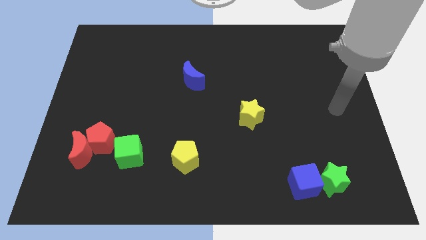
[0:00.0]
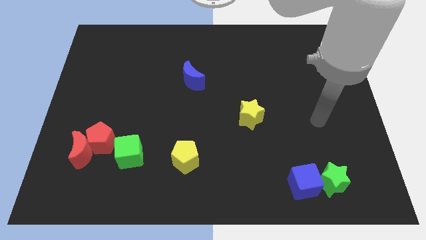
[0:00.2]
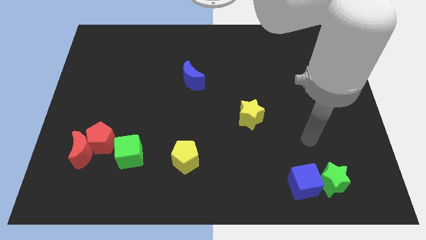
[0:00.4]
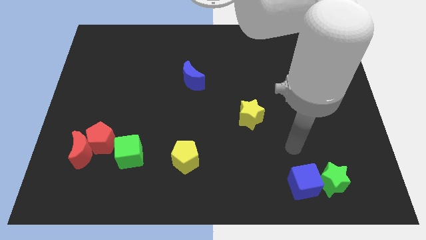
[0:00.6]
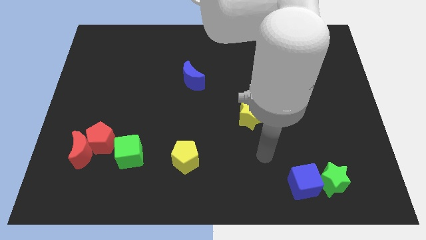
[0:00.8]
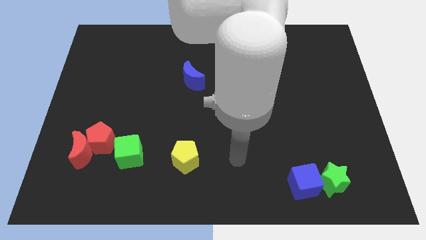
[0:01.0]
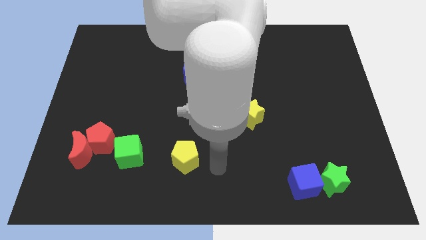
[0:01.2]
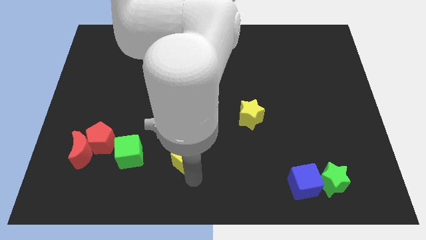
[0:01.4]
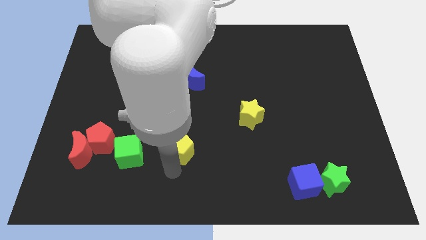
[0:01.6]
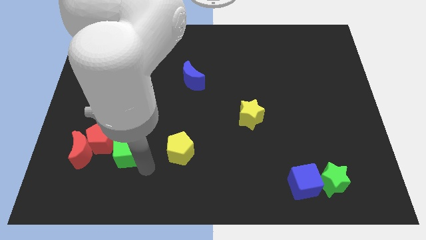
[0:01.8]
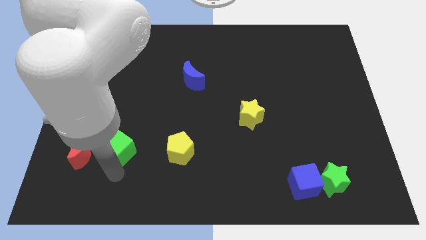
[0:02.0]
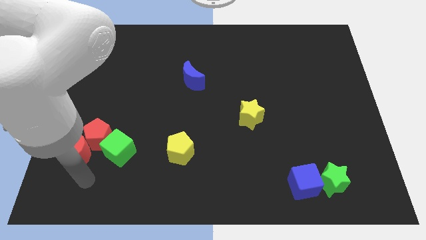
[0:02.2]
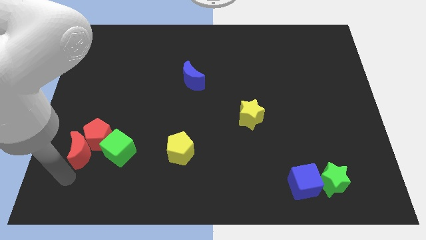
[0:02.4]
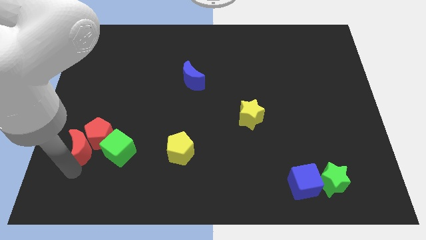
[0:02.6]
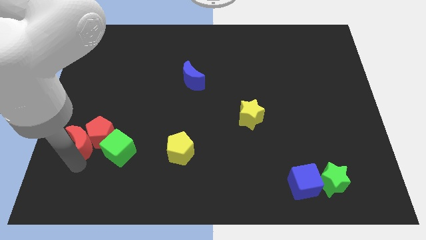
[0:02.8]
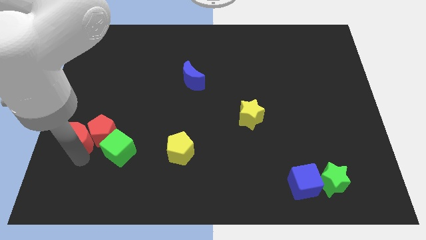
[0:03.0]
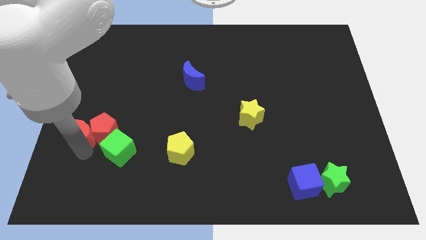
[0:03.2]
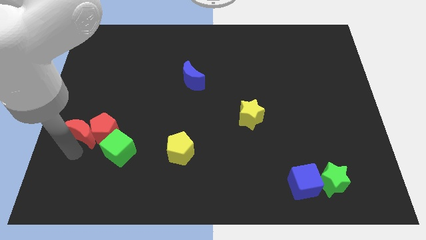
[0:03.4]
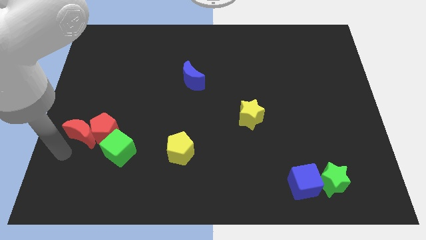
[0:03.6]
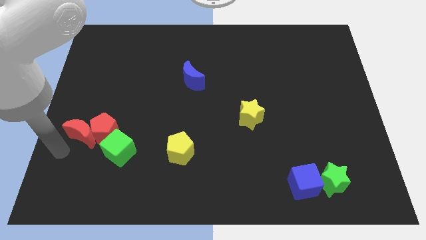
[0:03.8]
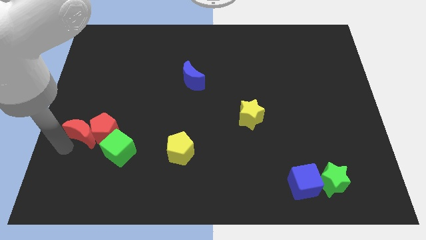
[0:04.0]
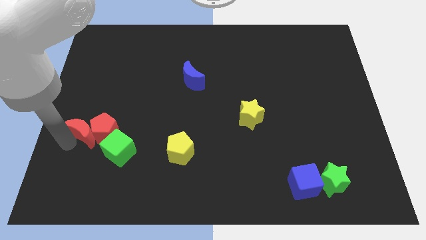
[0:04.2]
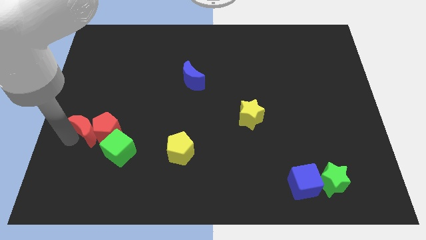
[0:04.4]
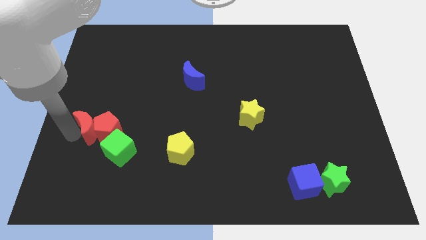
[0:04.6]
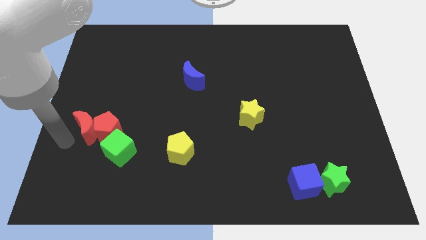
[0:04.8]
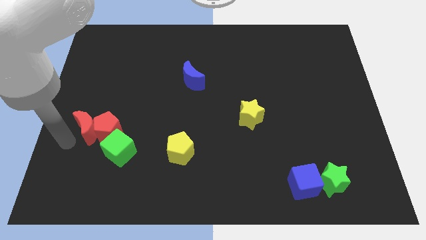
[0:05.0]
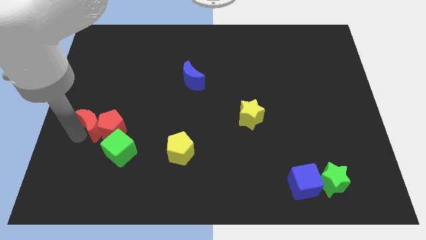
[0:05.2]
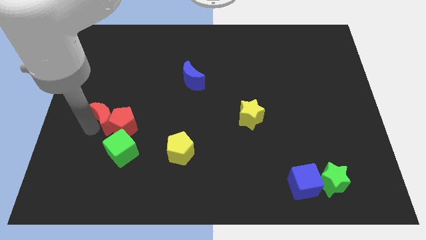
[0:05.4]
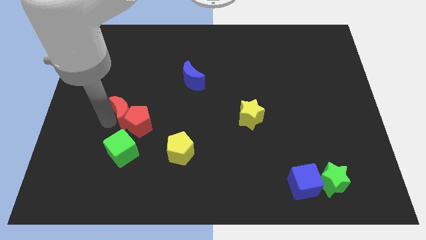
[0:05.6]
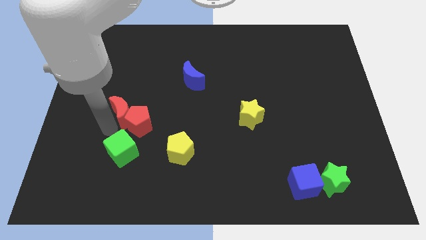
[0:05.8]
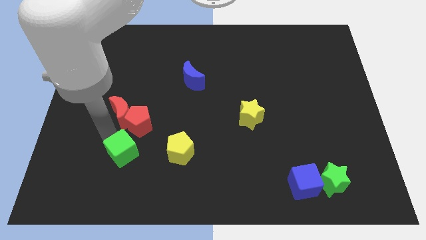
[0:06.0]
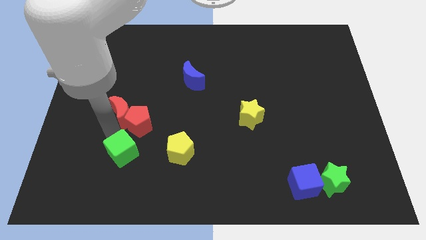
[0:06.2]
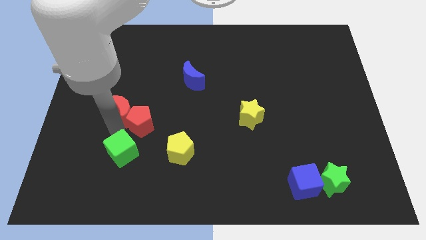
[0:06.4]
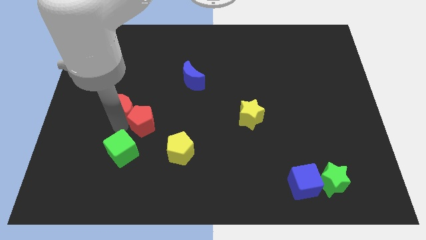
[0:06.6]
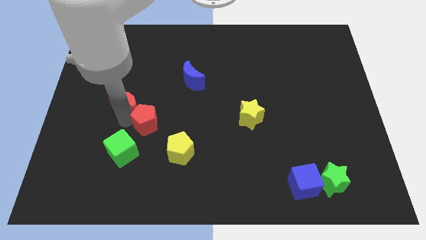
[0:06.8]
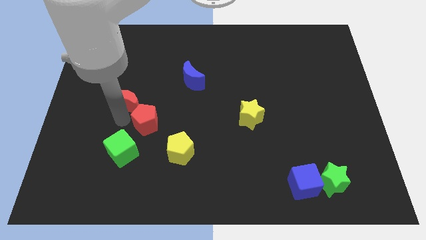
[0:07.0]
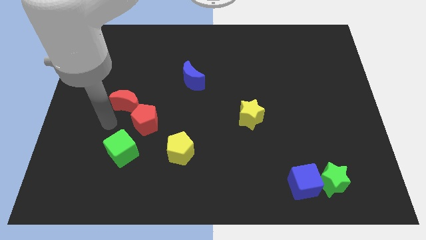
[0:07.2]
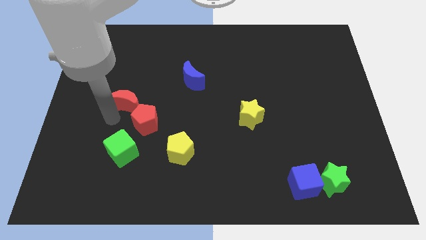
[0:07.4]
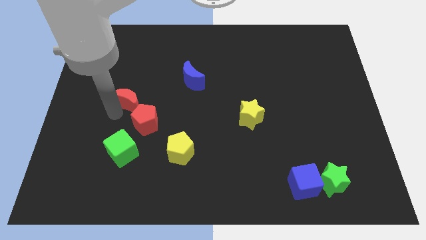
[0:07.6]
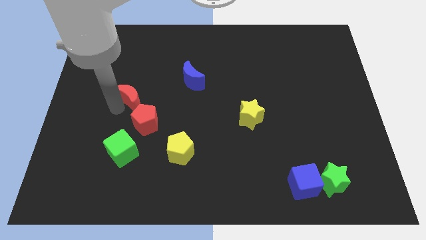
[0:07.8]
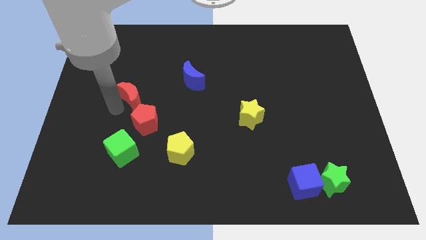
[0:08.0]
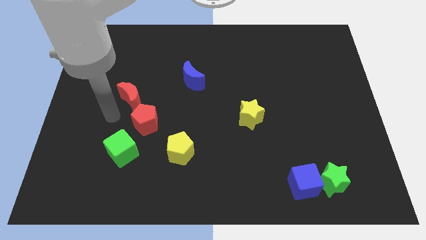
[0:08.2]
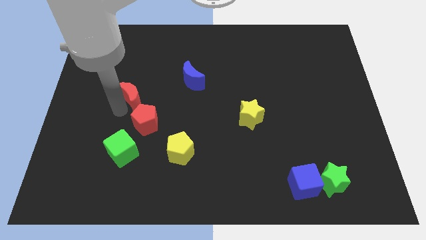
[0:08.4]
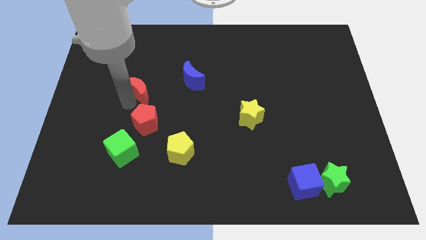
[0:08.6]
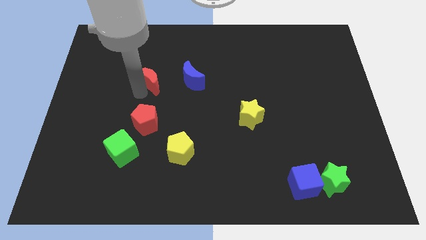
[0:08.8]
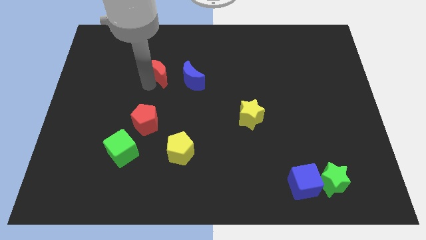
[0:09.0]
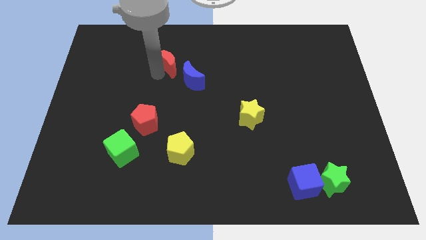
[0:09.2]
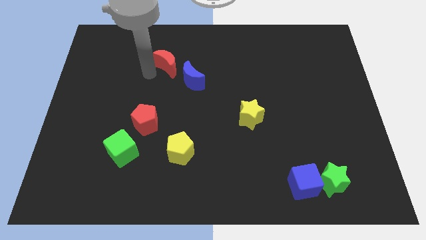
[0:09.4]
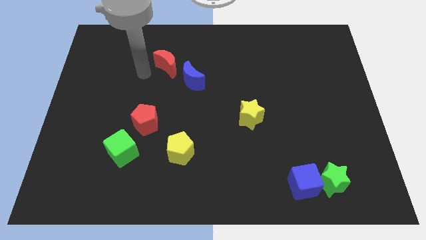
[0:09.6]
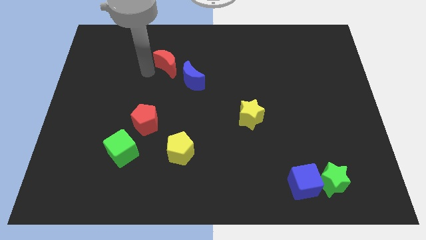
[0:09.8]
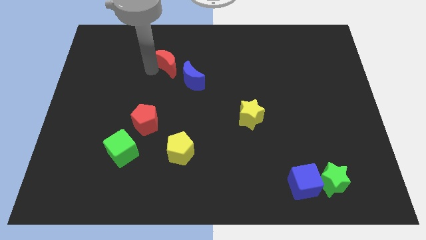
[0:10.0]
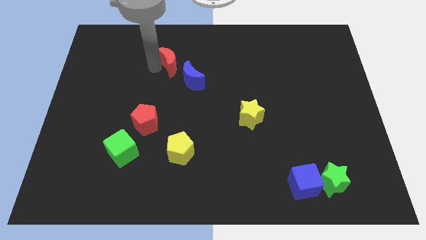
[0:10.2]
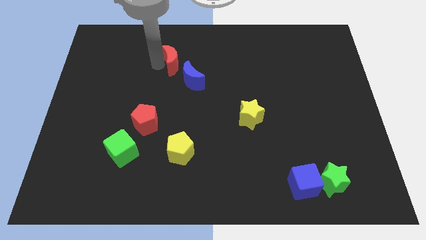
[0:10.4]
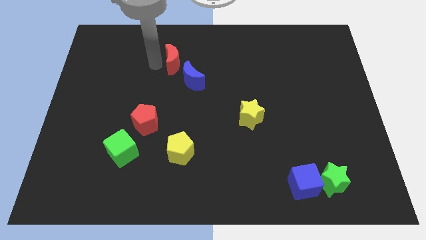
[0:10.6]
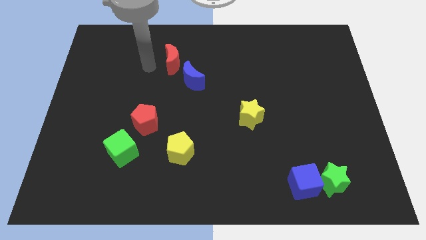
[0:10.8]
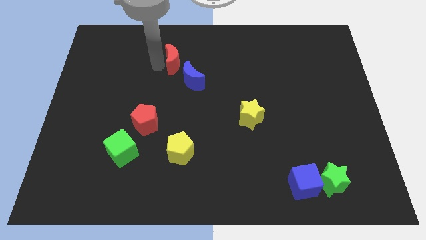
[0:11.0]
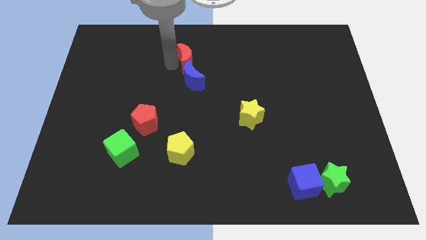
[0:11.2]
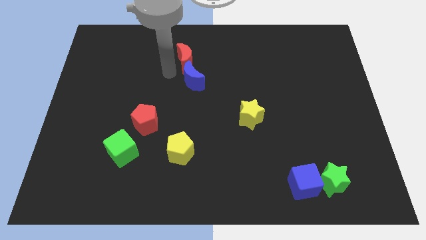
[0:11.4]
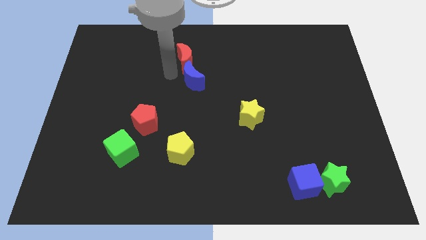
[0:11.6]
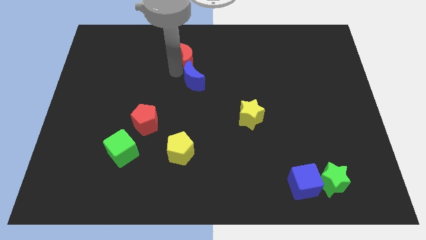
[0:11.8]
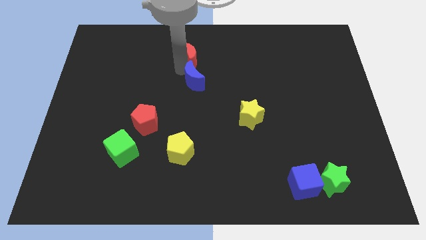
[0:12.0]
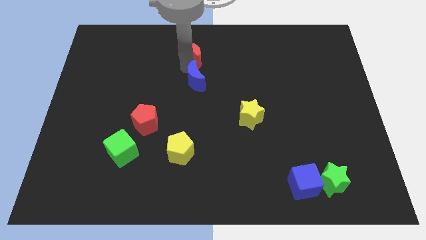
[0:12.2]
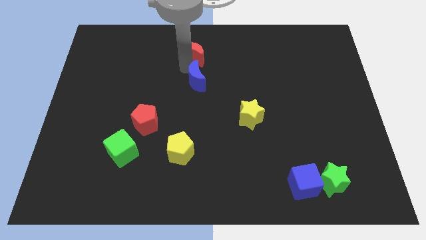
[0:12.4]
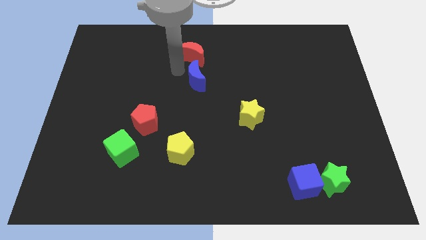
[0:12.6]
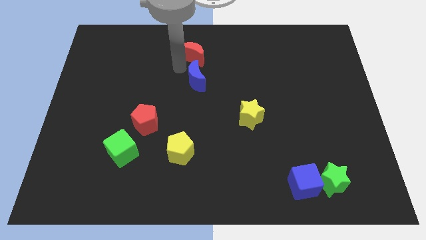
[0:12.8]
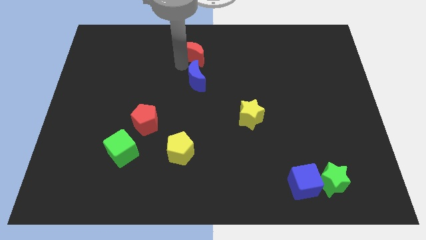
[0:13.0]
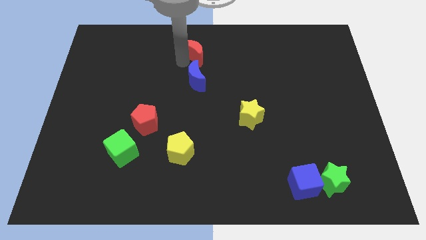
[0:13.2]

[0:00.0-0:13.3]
push the red moon to the top side
